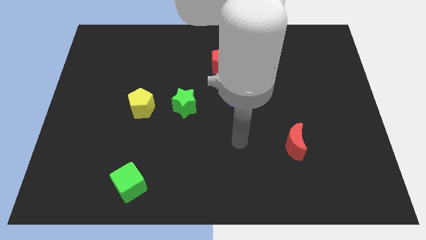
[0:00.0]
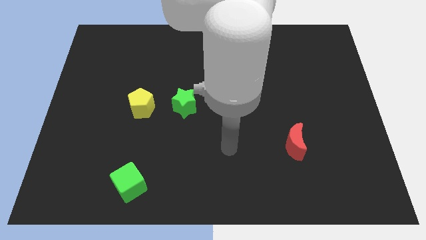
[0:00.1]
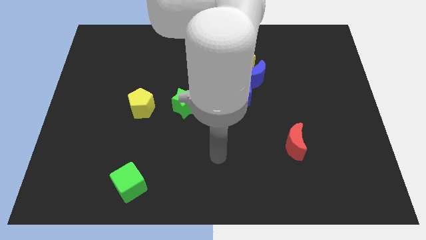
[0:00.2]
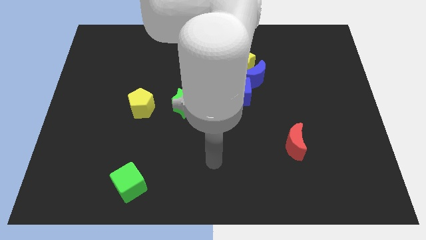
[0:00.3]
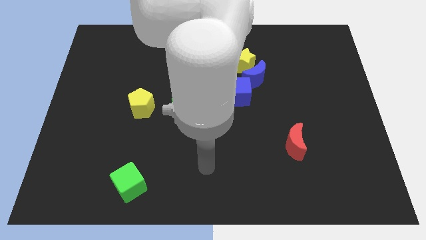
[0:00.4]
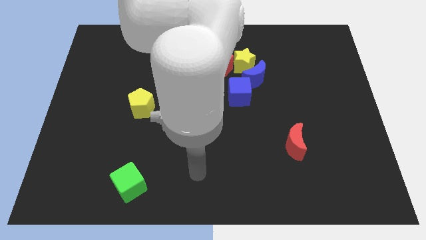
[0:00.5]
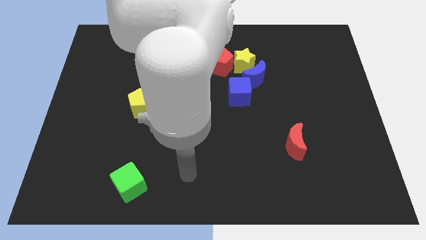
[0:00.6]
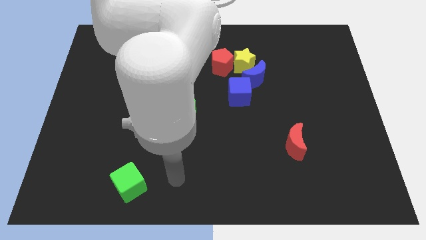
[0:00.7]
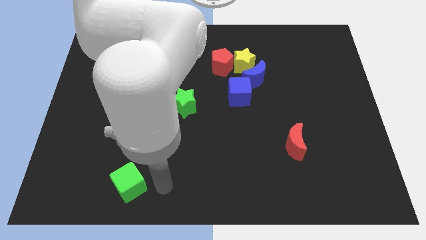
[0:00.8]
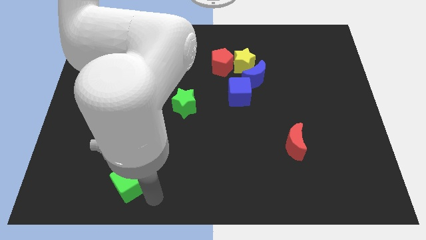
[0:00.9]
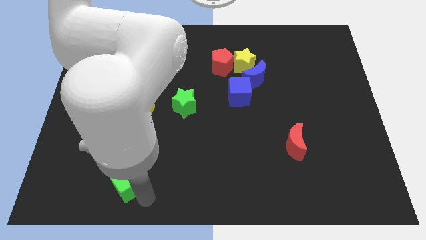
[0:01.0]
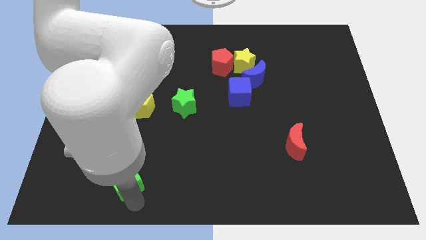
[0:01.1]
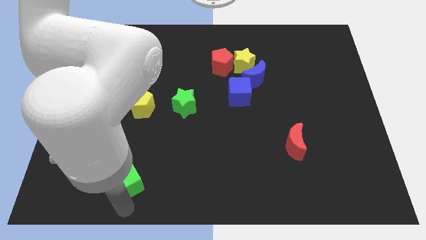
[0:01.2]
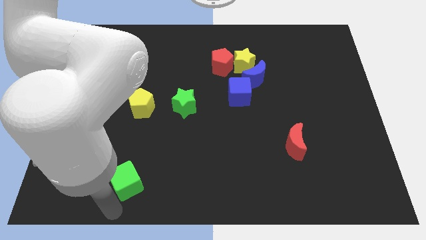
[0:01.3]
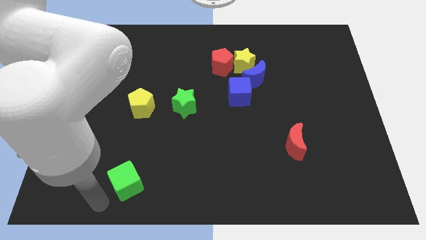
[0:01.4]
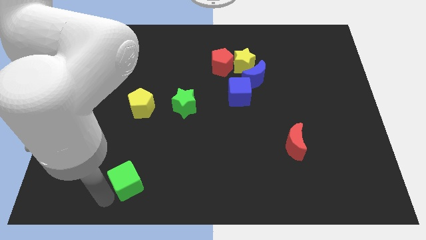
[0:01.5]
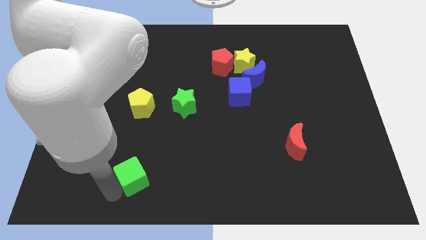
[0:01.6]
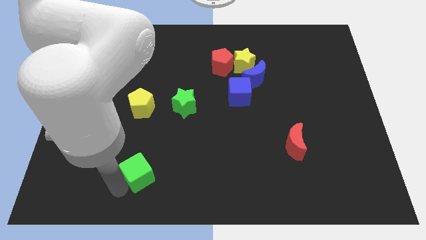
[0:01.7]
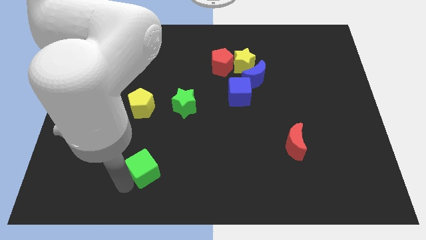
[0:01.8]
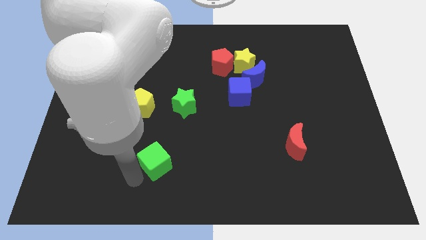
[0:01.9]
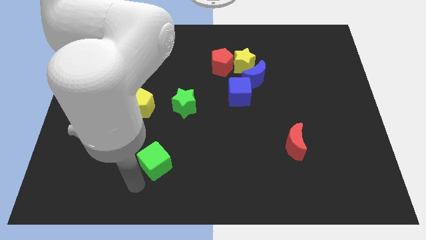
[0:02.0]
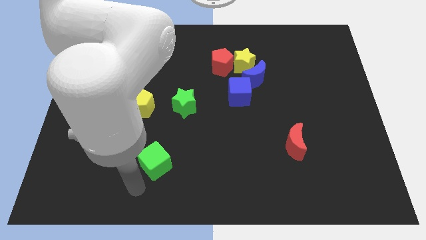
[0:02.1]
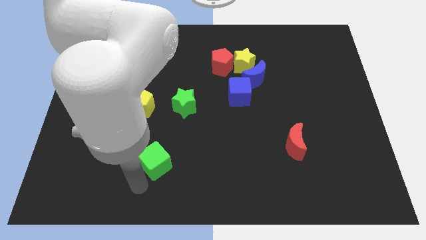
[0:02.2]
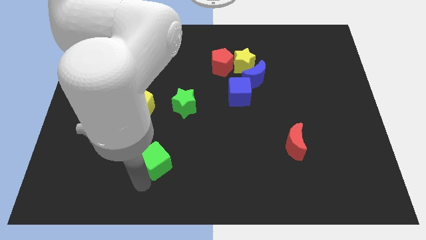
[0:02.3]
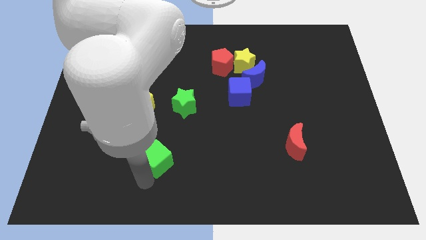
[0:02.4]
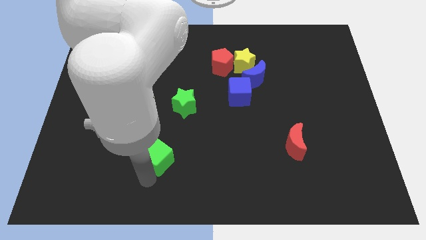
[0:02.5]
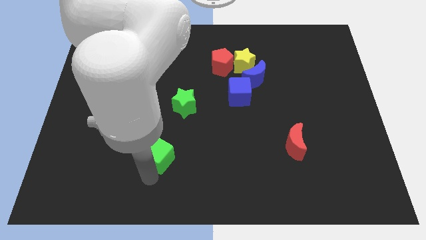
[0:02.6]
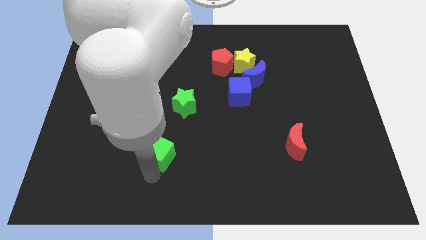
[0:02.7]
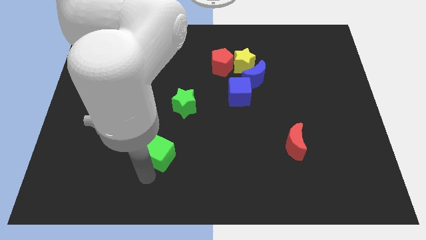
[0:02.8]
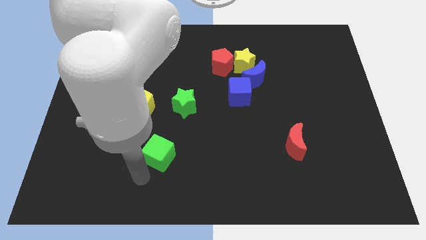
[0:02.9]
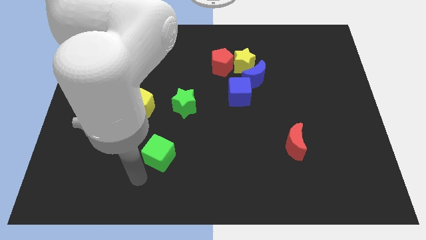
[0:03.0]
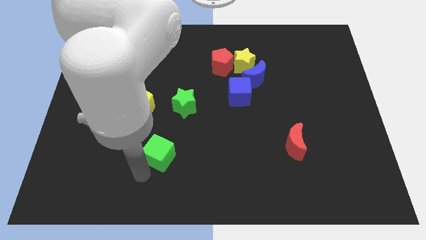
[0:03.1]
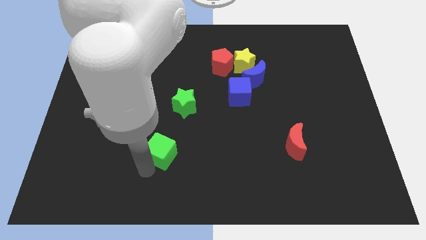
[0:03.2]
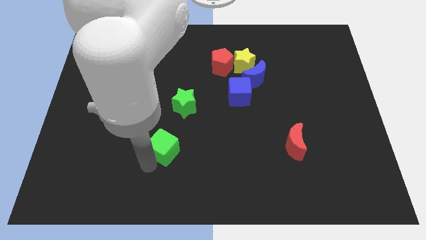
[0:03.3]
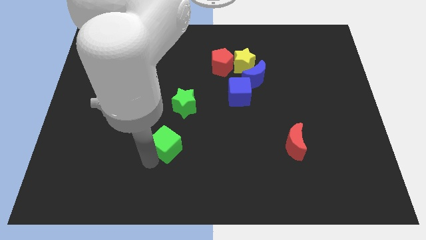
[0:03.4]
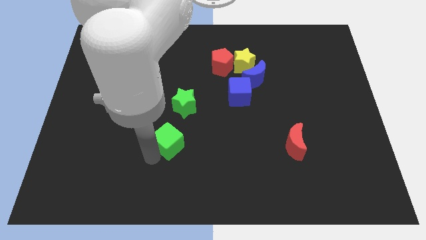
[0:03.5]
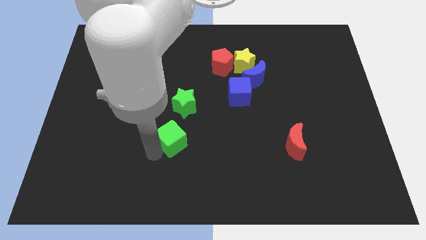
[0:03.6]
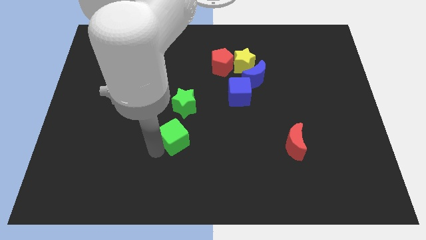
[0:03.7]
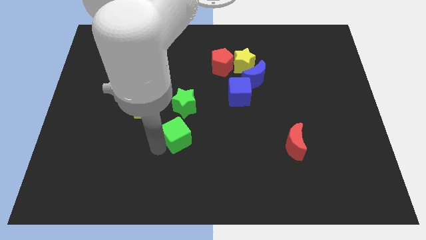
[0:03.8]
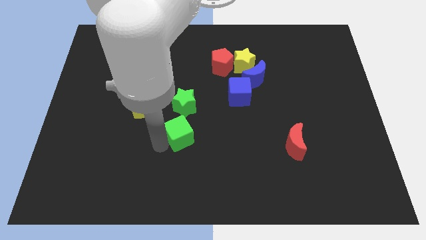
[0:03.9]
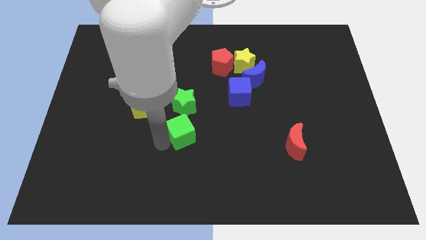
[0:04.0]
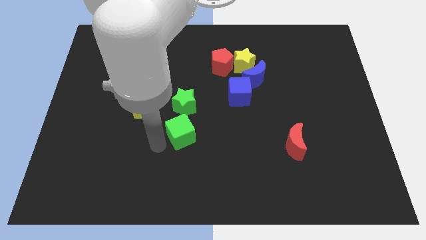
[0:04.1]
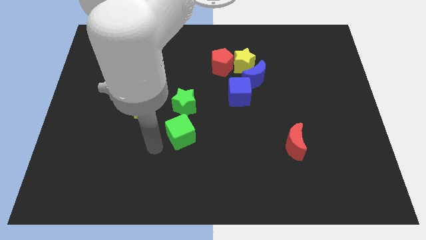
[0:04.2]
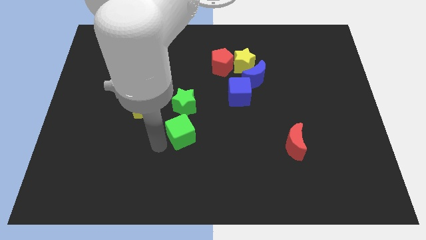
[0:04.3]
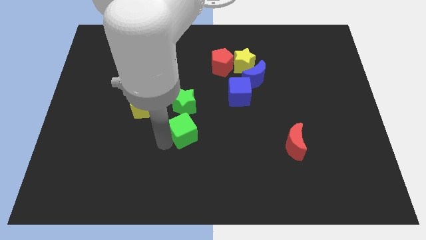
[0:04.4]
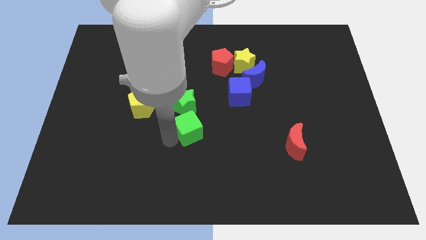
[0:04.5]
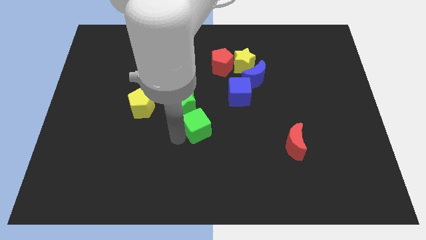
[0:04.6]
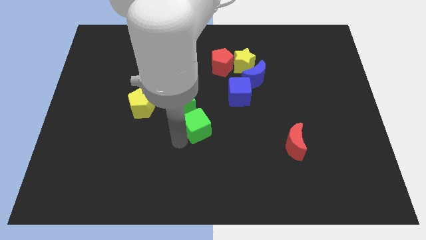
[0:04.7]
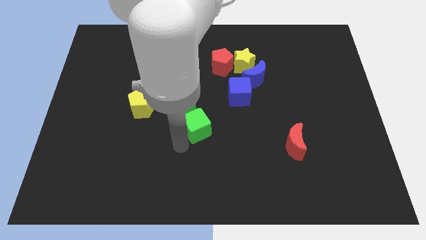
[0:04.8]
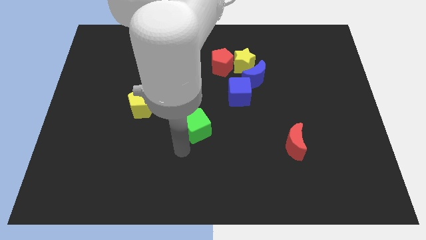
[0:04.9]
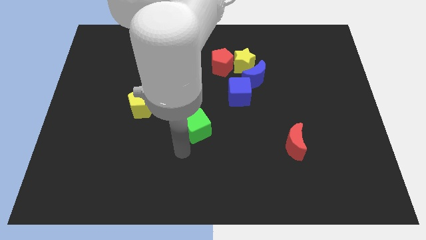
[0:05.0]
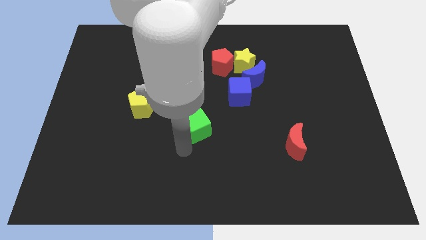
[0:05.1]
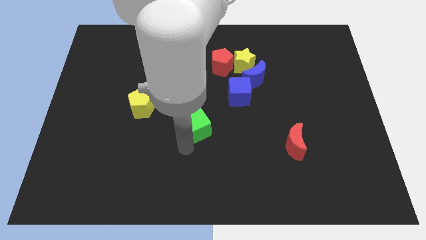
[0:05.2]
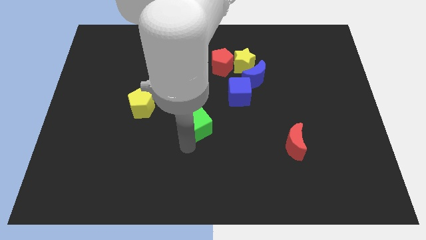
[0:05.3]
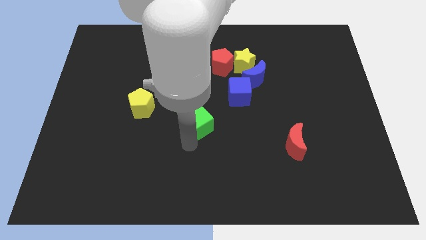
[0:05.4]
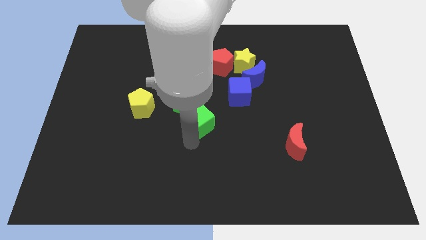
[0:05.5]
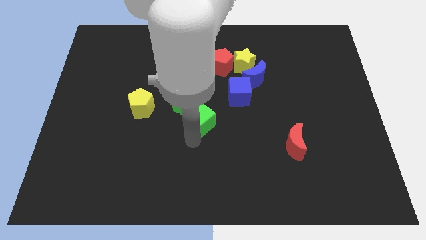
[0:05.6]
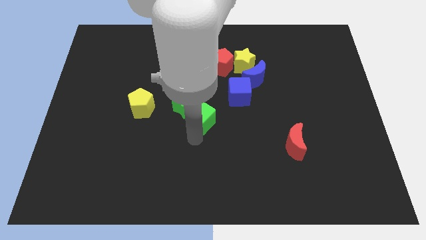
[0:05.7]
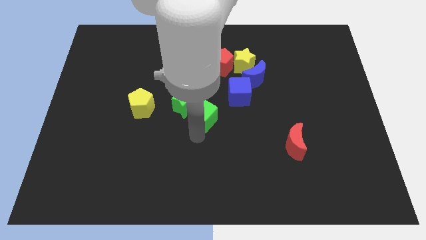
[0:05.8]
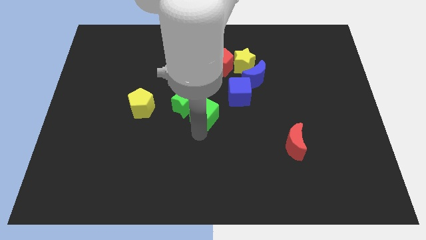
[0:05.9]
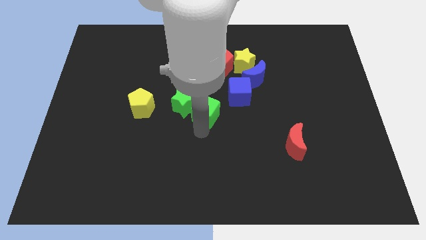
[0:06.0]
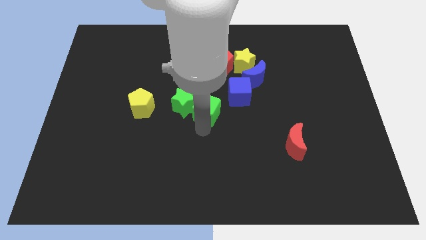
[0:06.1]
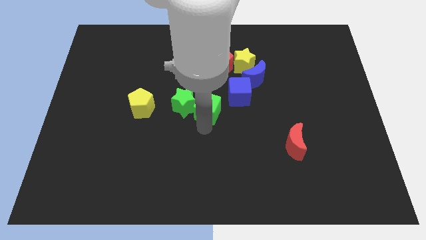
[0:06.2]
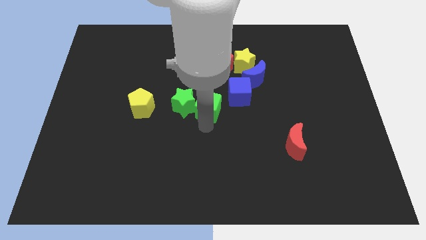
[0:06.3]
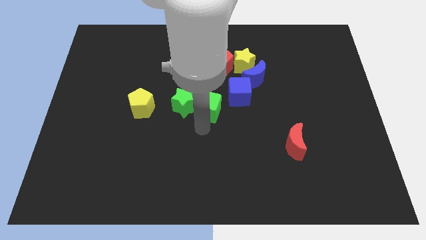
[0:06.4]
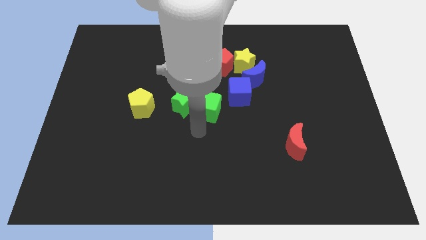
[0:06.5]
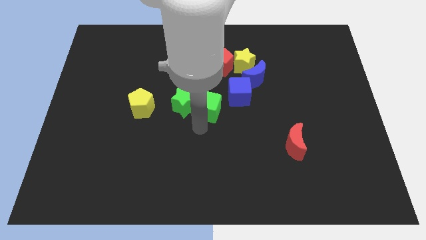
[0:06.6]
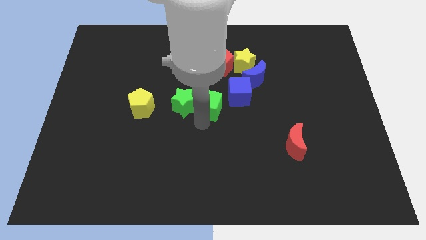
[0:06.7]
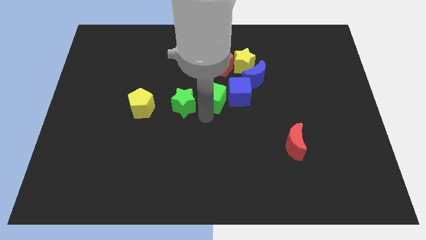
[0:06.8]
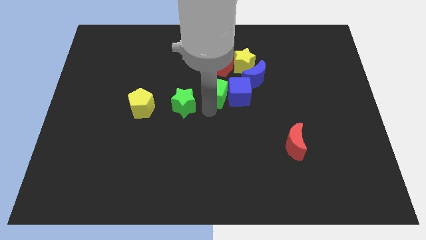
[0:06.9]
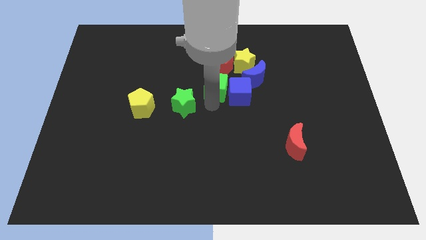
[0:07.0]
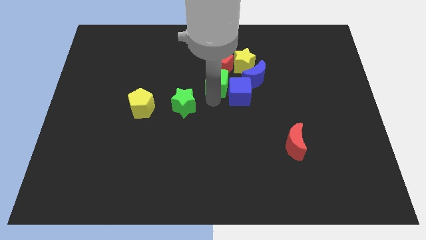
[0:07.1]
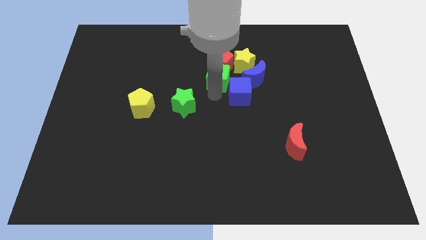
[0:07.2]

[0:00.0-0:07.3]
push the green cube next to the red pentagon

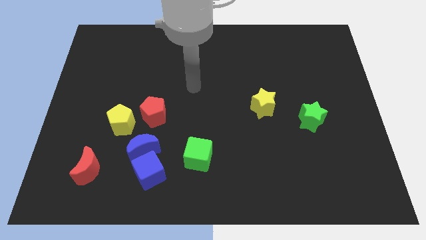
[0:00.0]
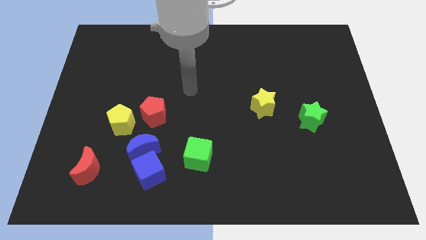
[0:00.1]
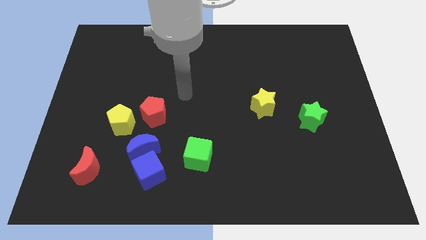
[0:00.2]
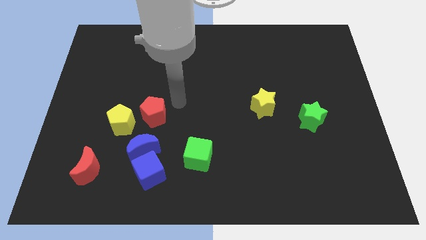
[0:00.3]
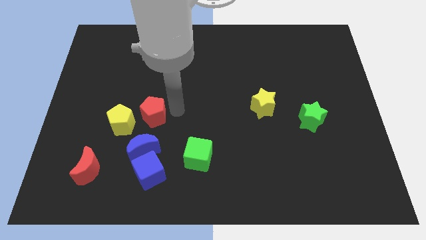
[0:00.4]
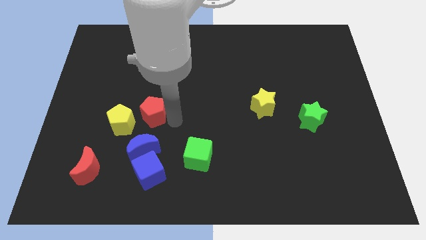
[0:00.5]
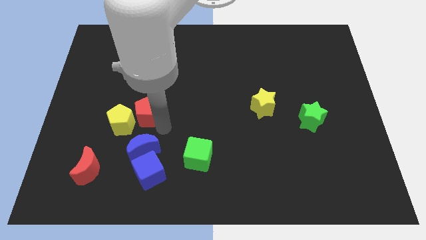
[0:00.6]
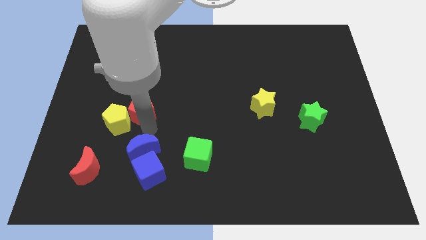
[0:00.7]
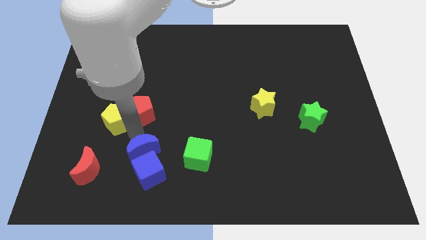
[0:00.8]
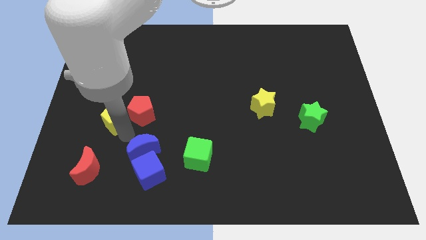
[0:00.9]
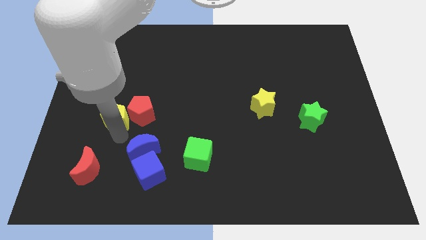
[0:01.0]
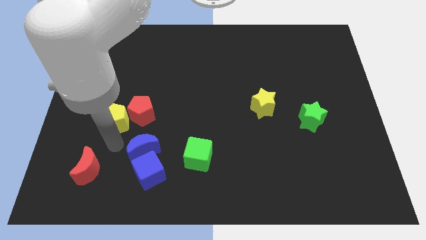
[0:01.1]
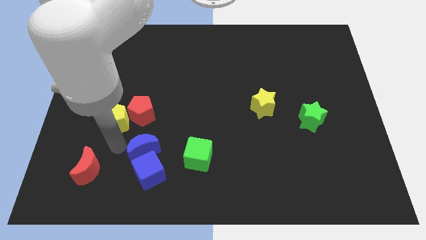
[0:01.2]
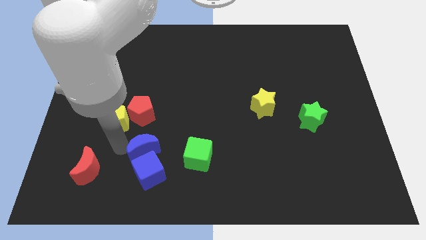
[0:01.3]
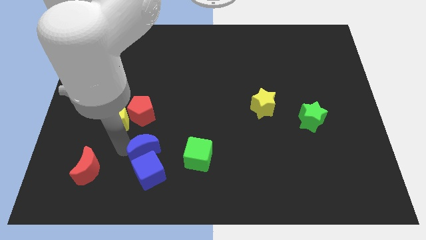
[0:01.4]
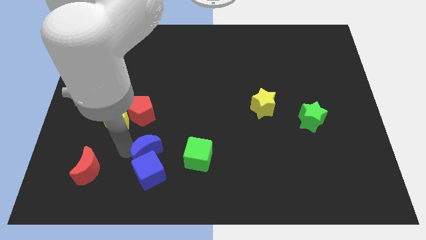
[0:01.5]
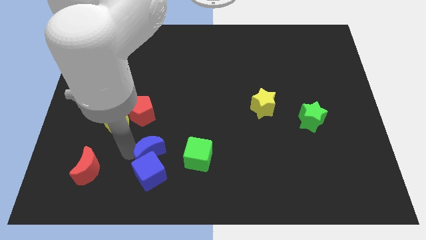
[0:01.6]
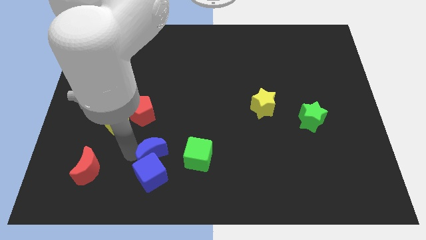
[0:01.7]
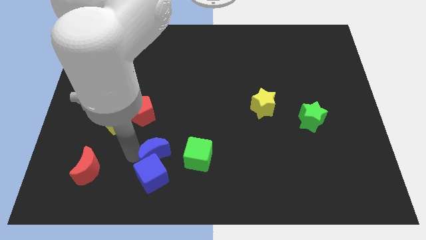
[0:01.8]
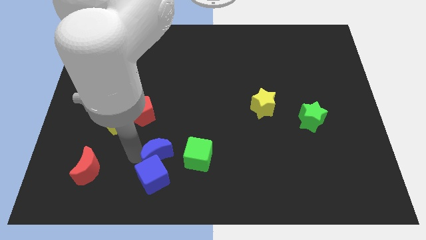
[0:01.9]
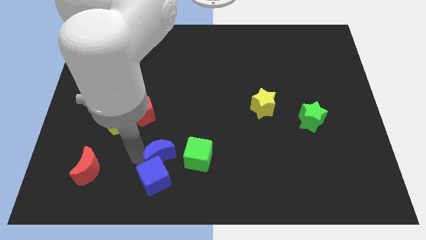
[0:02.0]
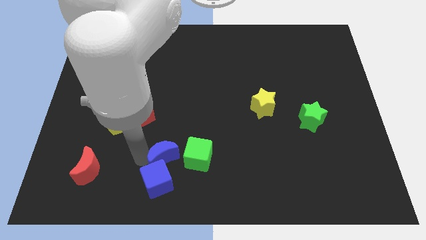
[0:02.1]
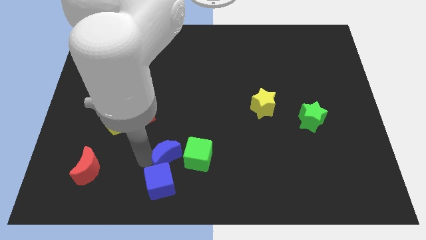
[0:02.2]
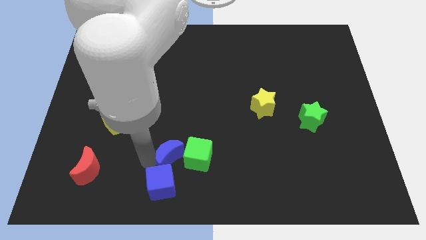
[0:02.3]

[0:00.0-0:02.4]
push the blue moon close to the green cube
